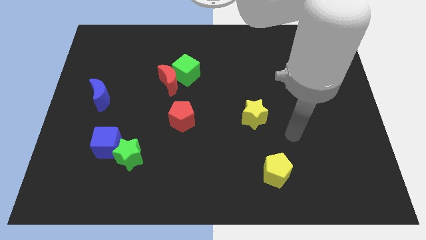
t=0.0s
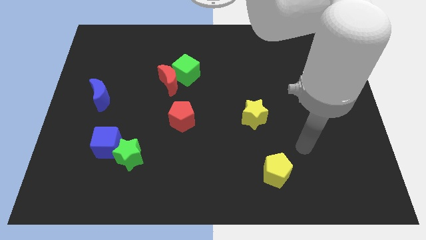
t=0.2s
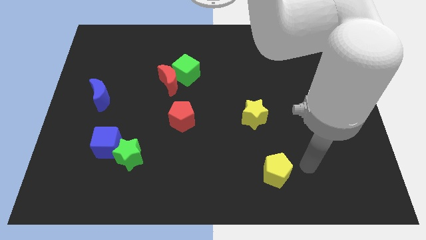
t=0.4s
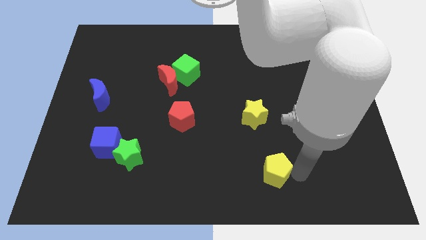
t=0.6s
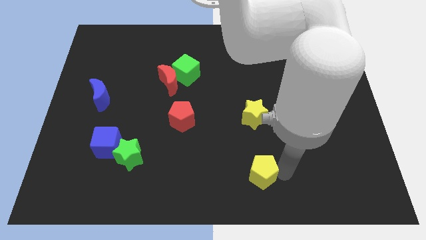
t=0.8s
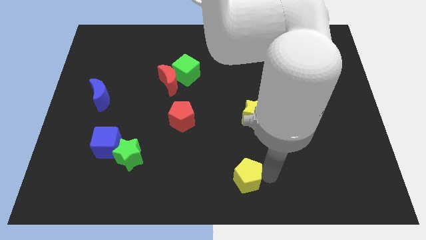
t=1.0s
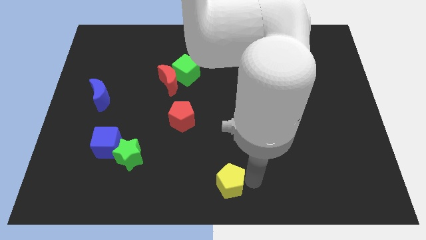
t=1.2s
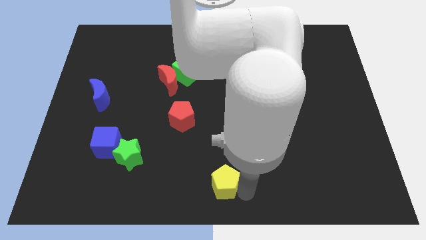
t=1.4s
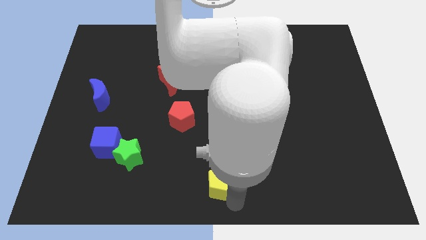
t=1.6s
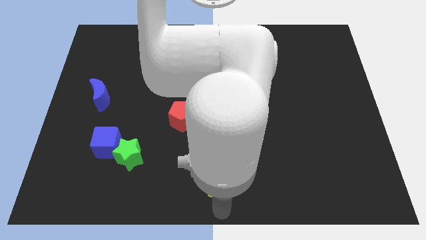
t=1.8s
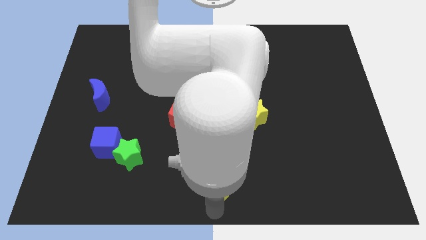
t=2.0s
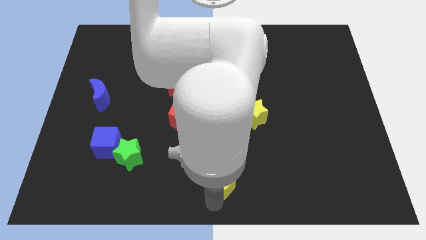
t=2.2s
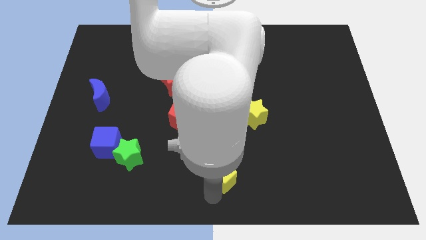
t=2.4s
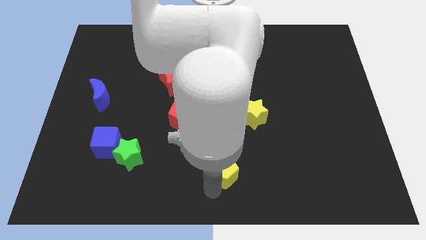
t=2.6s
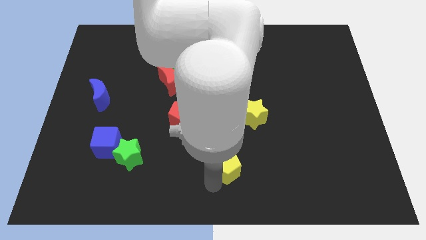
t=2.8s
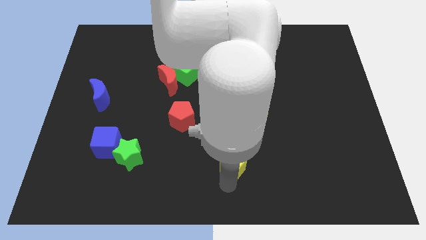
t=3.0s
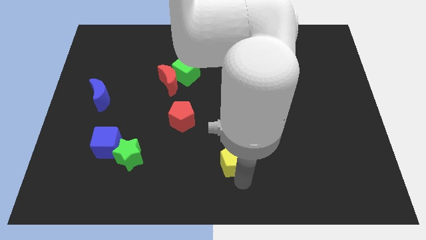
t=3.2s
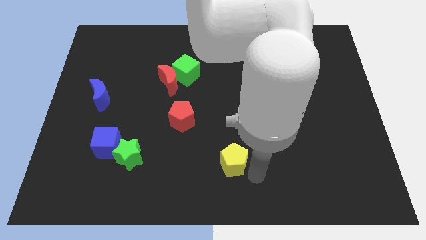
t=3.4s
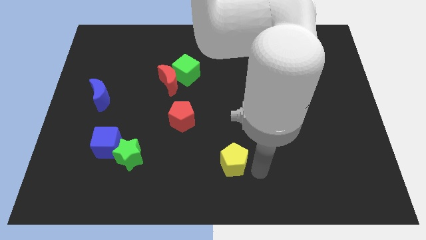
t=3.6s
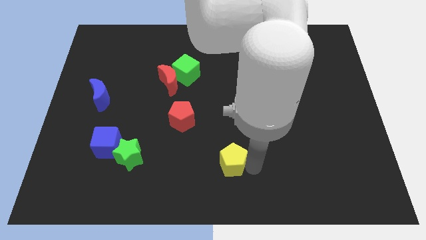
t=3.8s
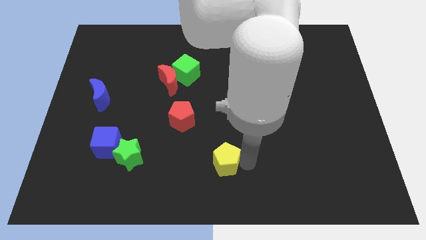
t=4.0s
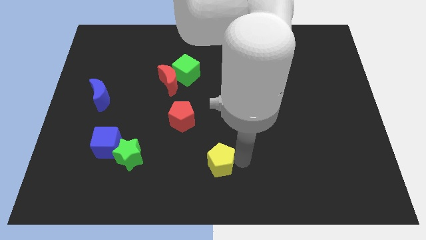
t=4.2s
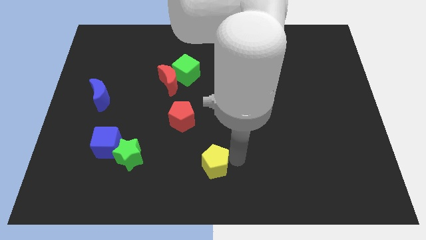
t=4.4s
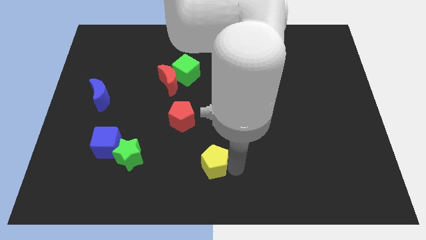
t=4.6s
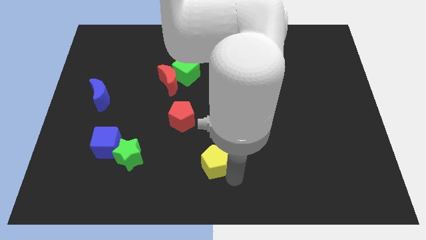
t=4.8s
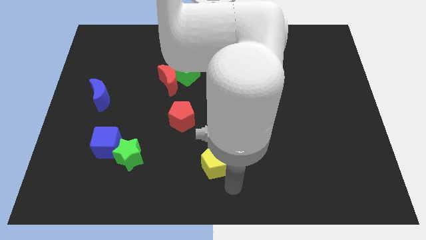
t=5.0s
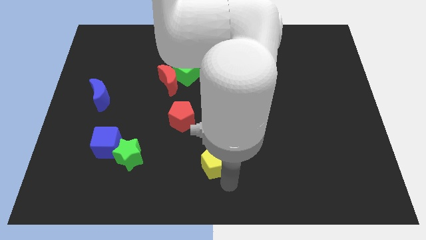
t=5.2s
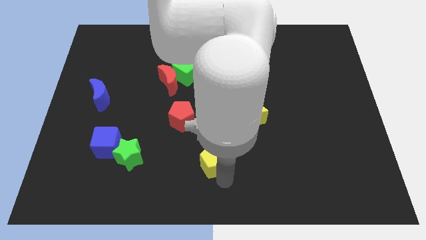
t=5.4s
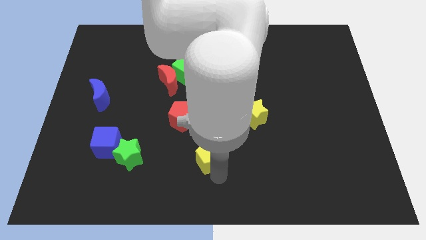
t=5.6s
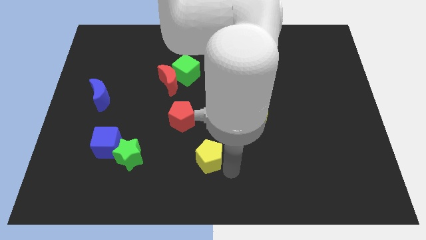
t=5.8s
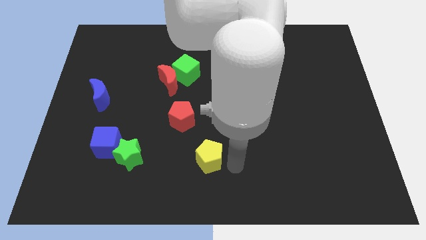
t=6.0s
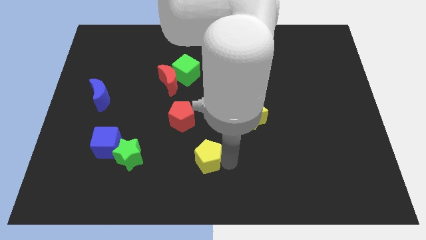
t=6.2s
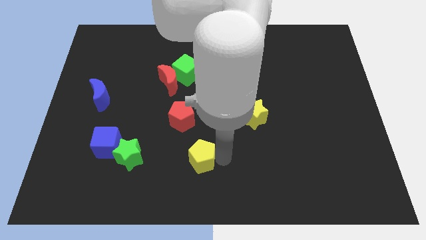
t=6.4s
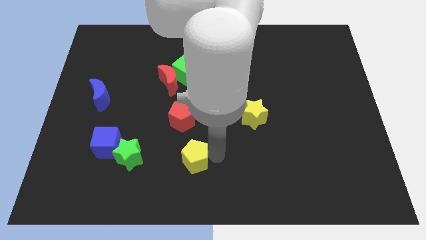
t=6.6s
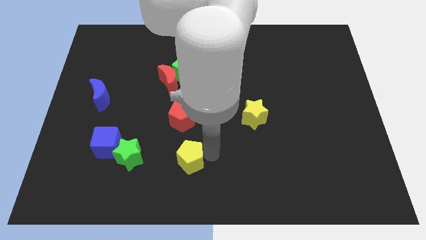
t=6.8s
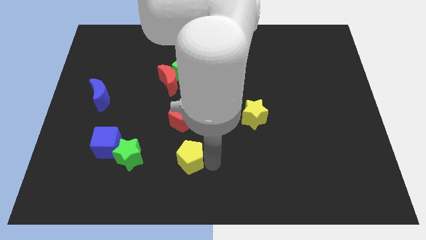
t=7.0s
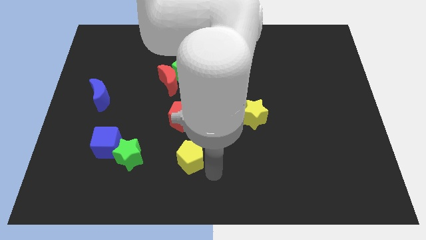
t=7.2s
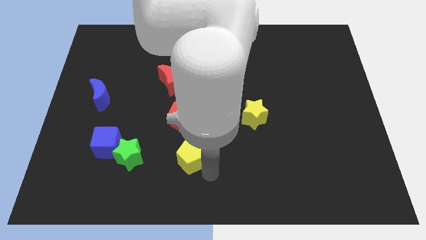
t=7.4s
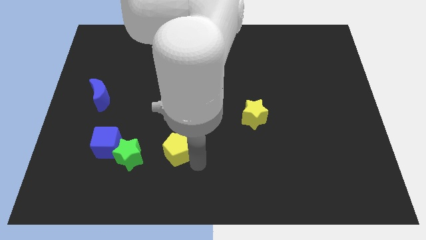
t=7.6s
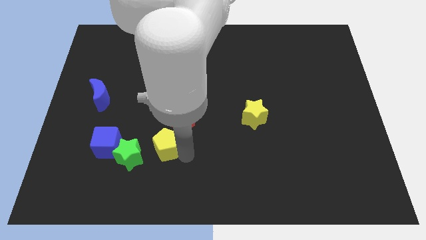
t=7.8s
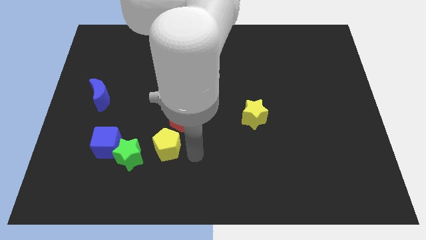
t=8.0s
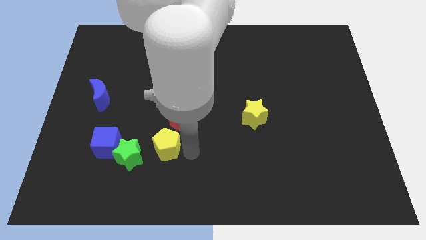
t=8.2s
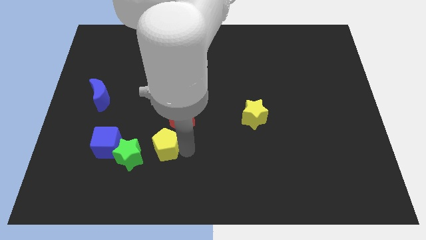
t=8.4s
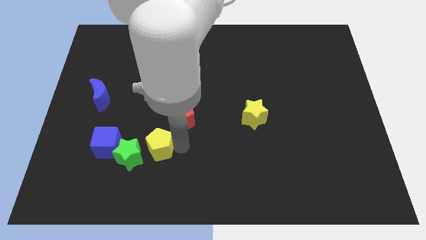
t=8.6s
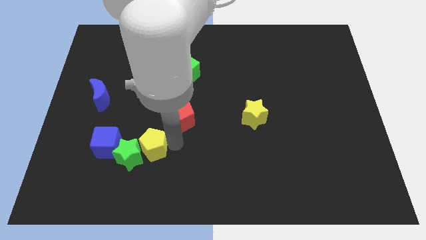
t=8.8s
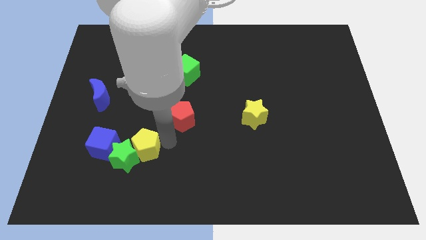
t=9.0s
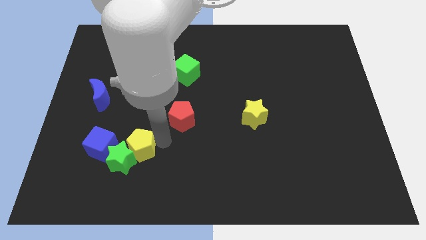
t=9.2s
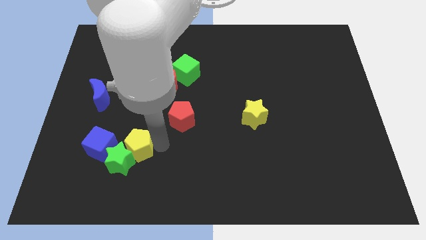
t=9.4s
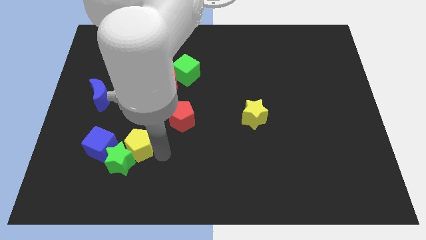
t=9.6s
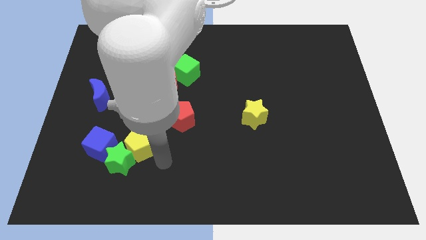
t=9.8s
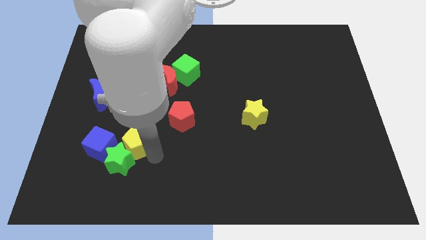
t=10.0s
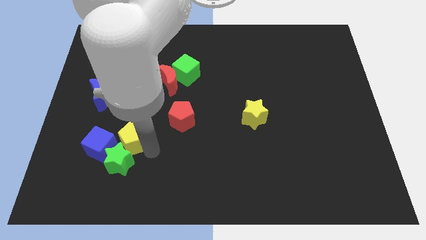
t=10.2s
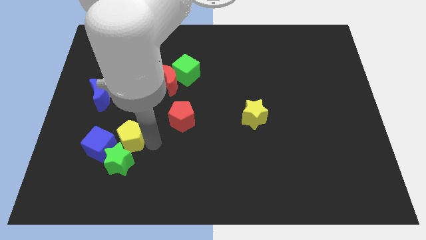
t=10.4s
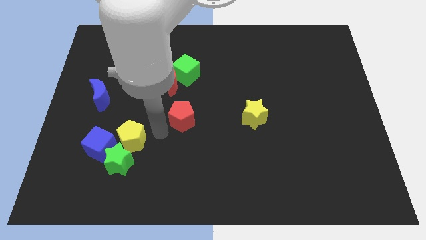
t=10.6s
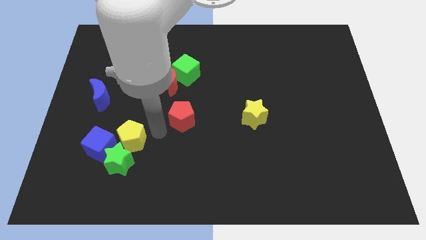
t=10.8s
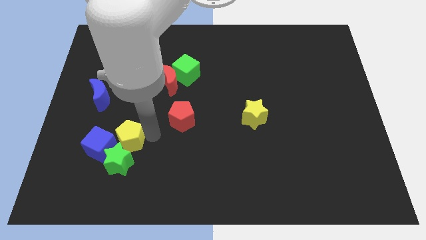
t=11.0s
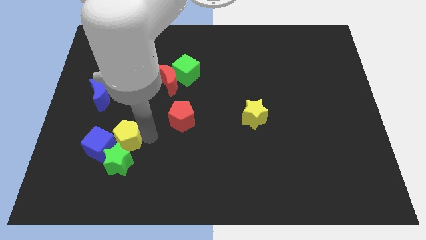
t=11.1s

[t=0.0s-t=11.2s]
move the yellow pentagon to the blue cube

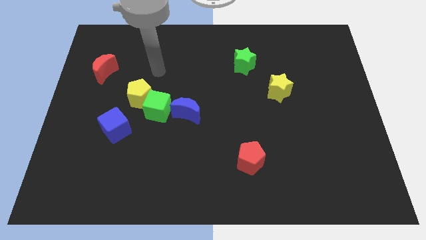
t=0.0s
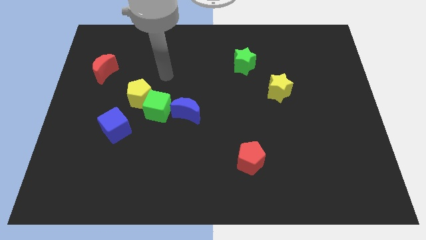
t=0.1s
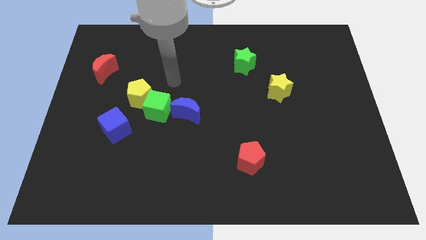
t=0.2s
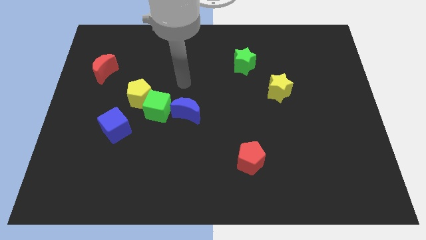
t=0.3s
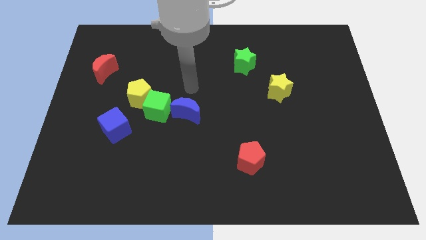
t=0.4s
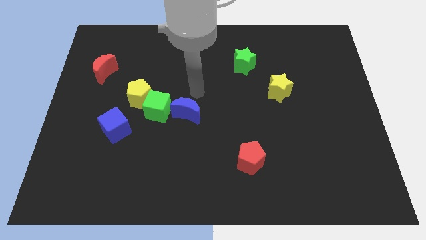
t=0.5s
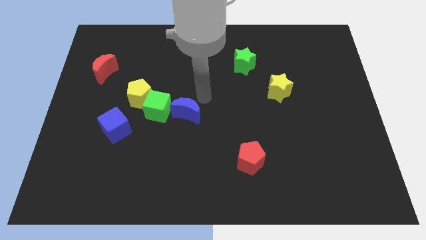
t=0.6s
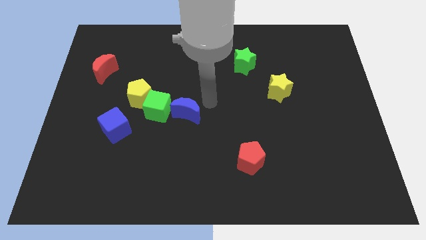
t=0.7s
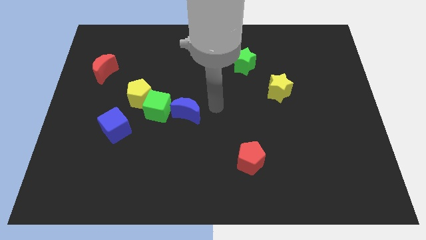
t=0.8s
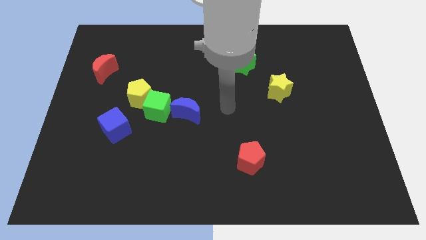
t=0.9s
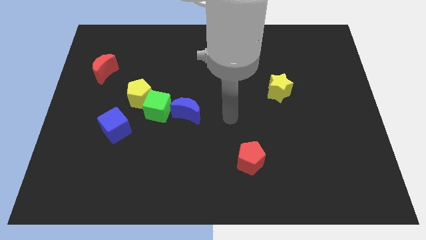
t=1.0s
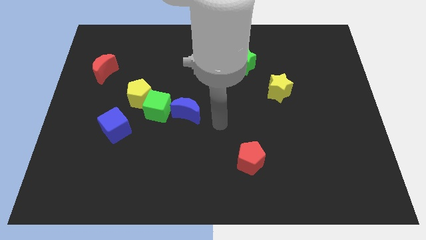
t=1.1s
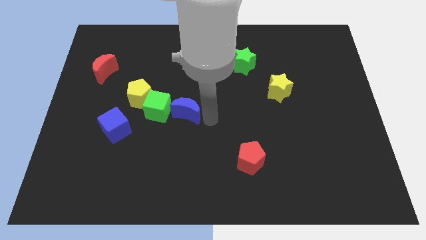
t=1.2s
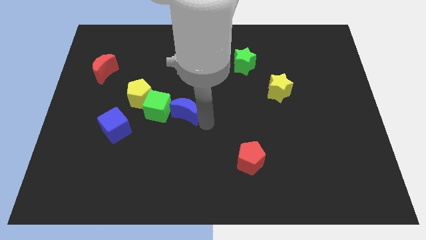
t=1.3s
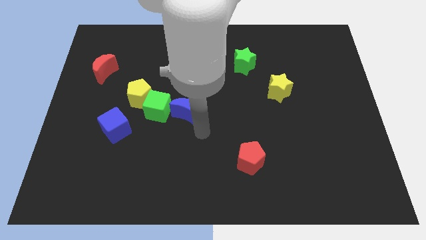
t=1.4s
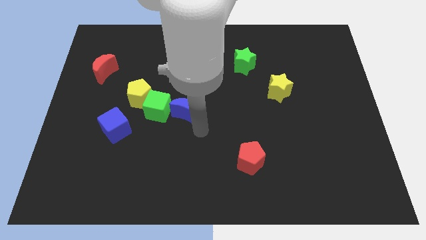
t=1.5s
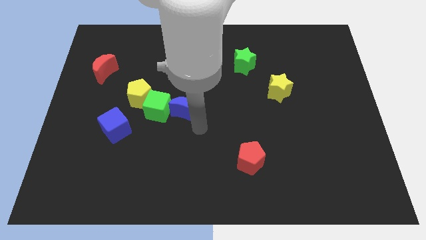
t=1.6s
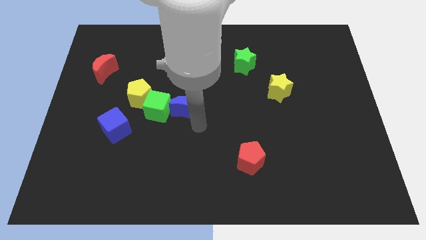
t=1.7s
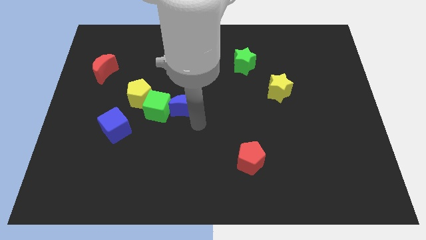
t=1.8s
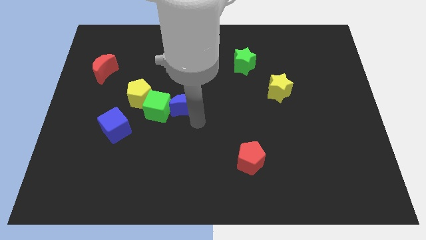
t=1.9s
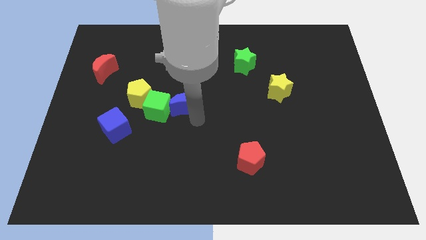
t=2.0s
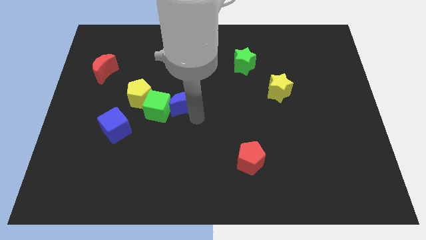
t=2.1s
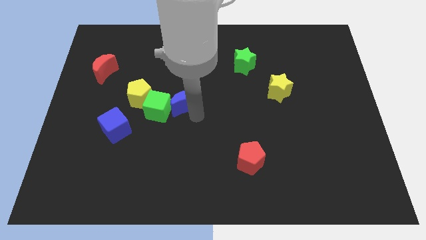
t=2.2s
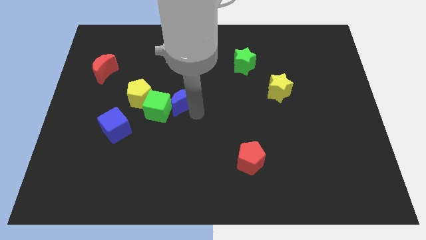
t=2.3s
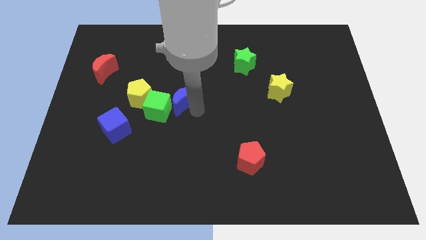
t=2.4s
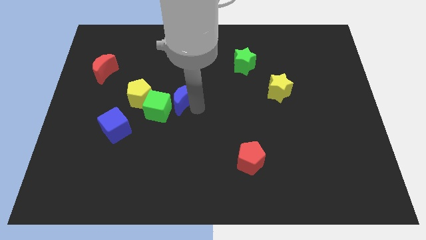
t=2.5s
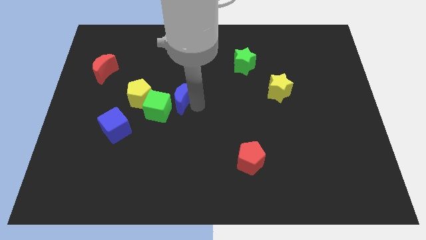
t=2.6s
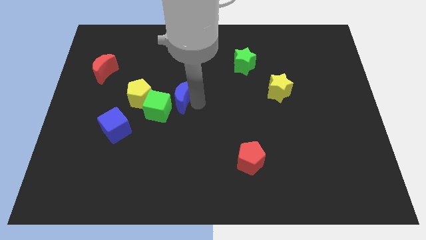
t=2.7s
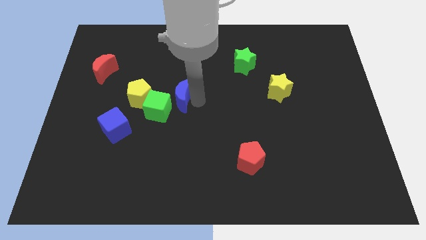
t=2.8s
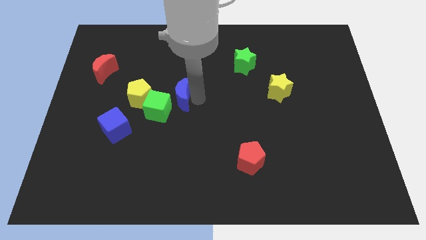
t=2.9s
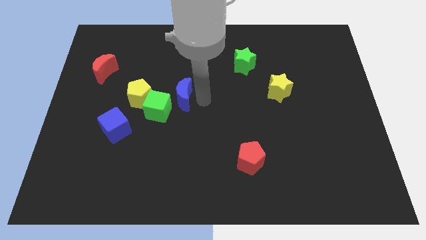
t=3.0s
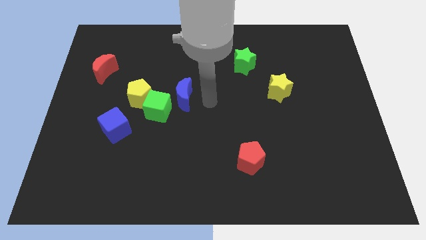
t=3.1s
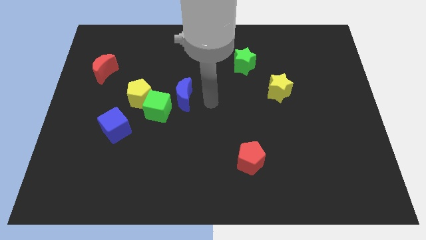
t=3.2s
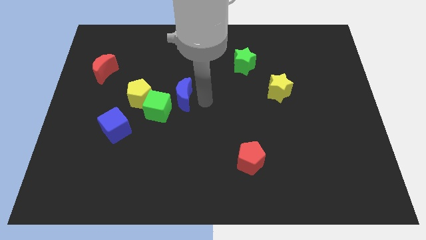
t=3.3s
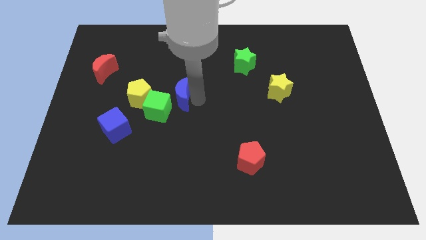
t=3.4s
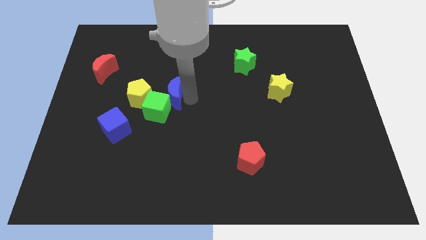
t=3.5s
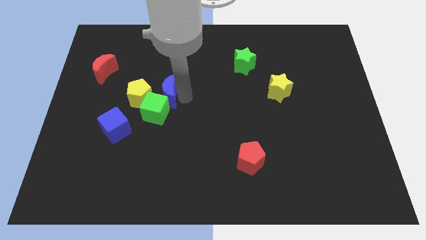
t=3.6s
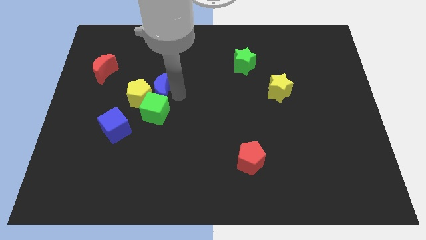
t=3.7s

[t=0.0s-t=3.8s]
slide the blue moon next to the yellow pentagon
